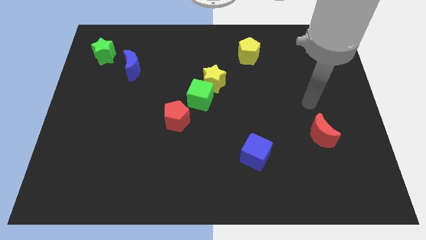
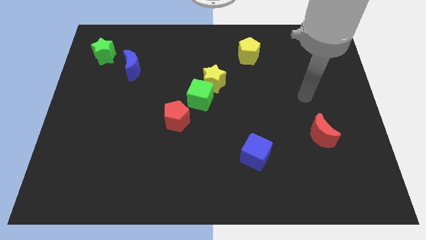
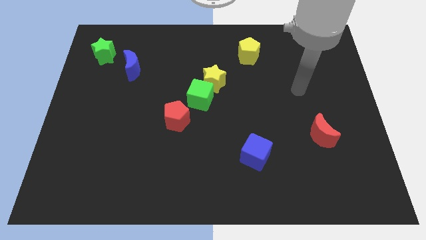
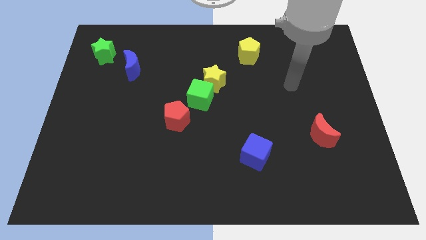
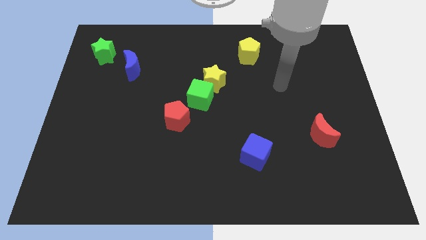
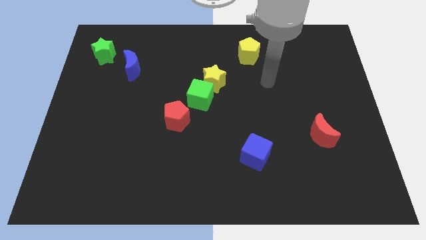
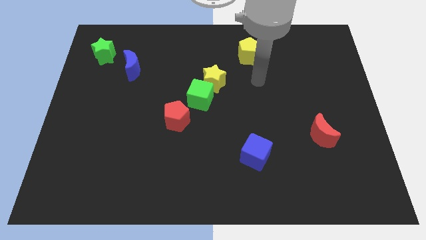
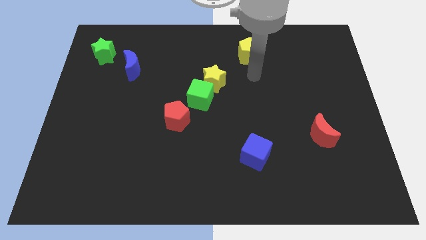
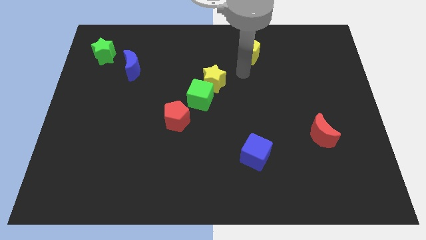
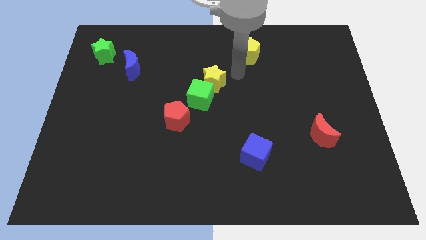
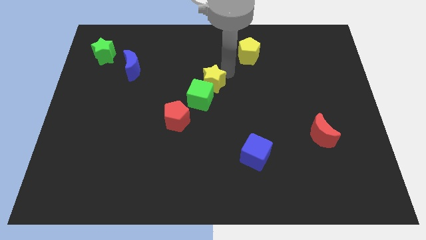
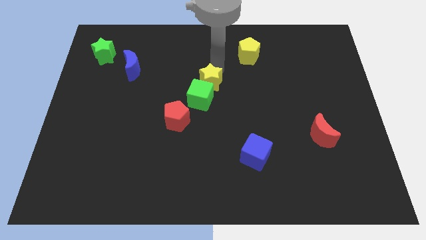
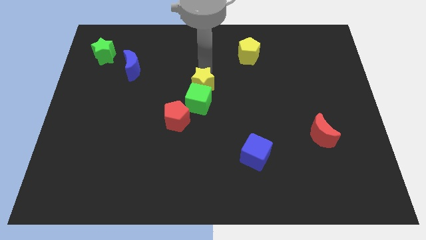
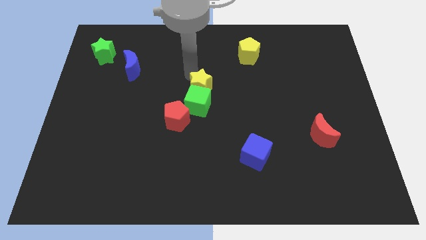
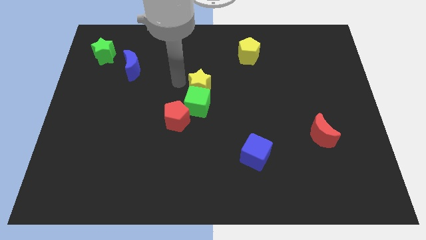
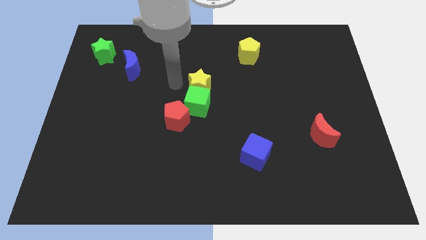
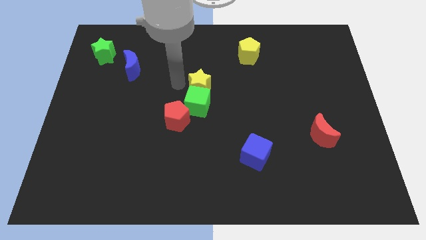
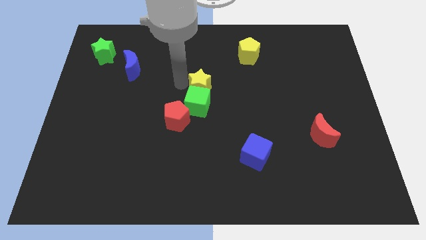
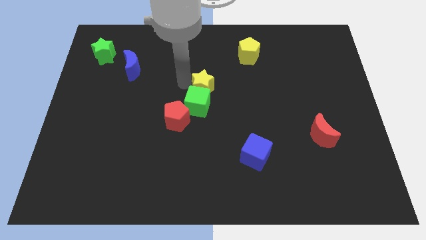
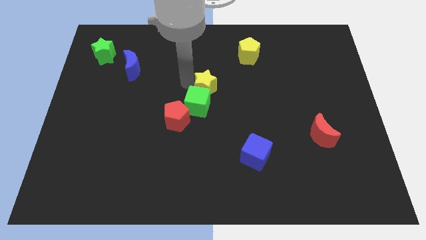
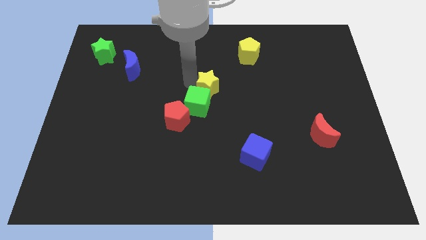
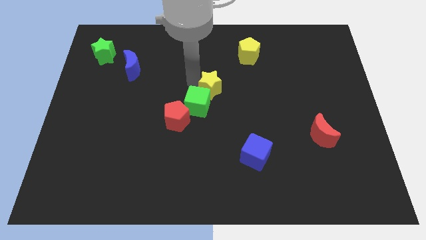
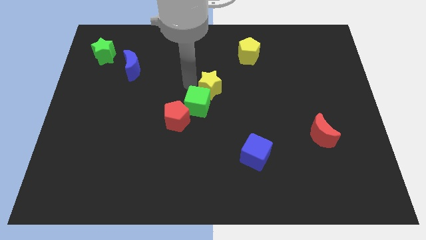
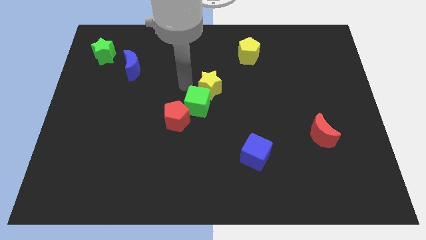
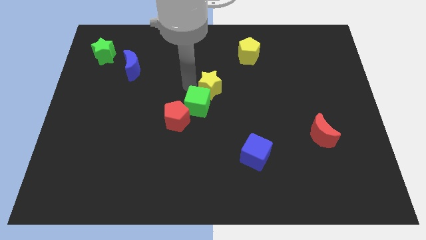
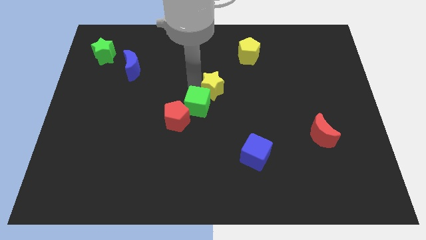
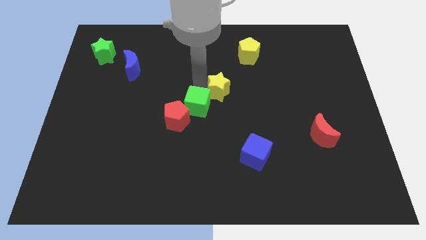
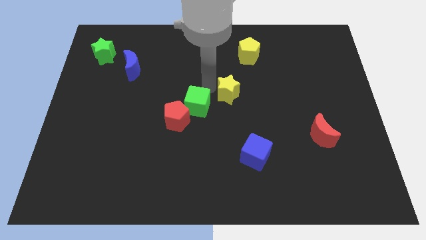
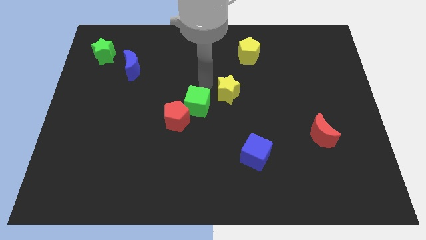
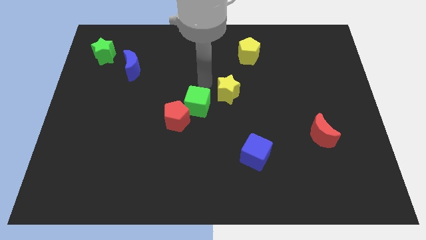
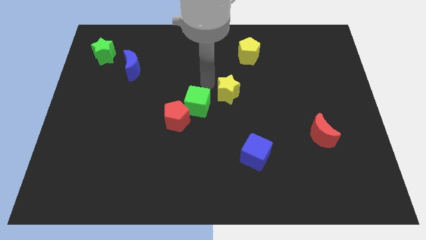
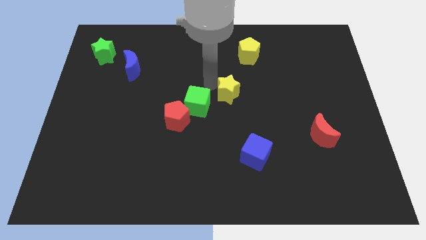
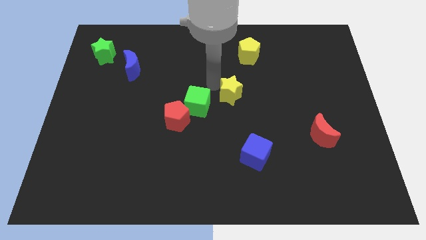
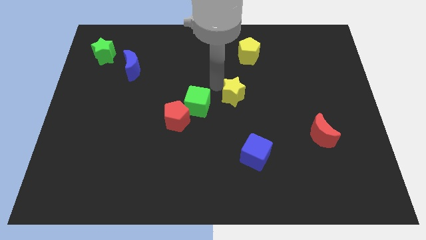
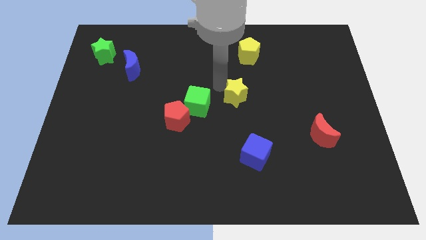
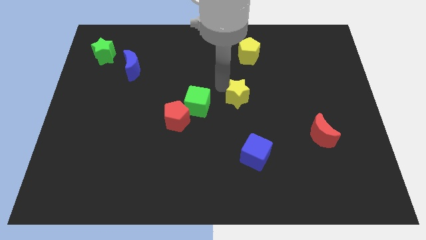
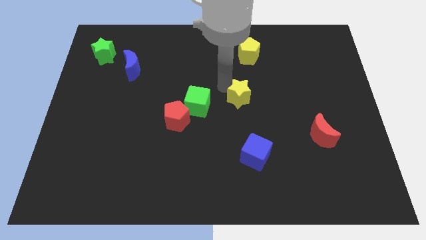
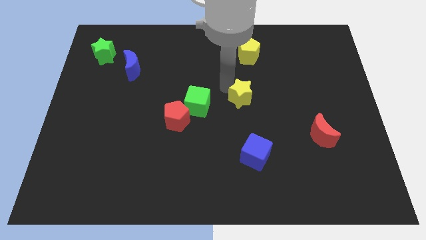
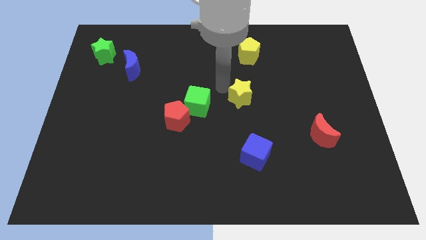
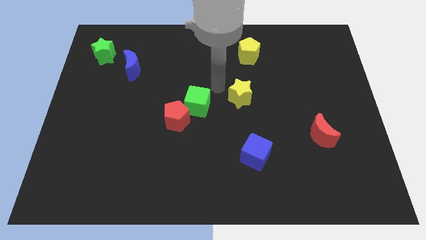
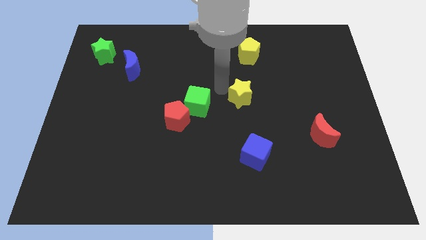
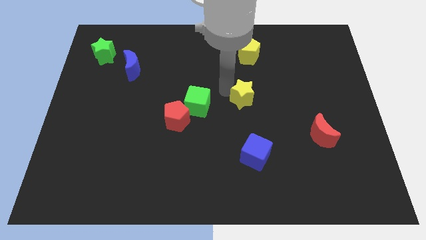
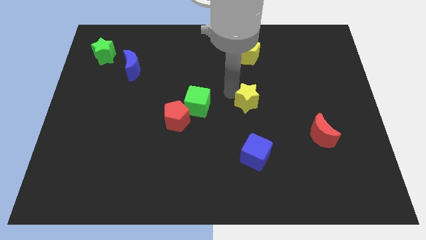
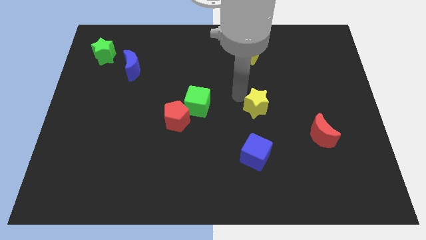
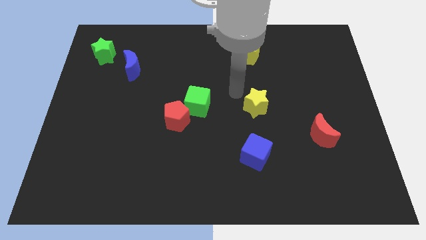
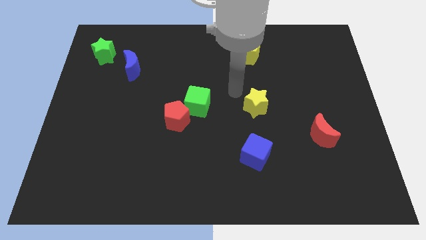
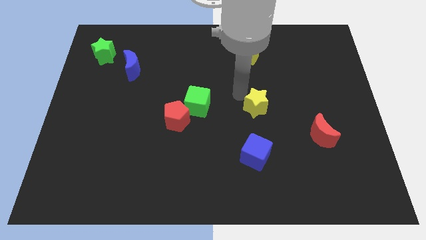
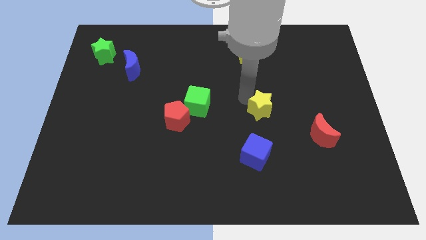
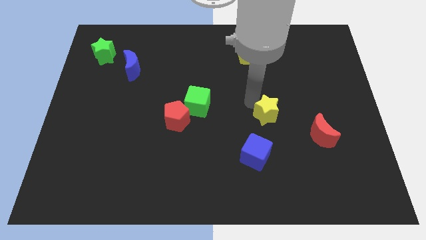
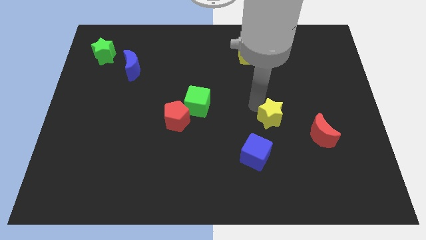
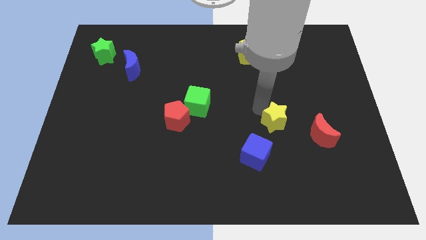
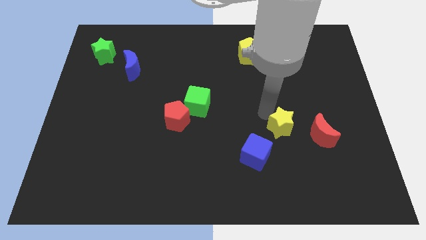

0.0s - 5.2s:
push the yellow star down and to the right diagonally

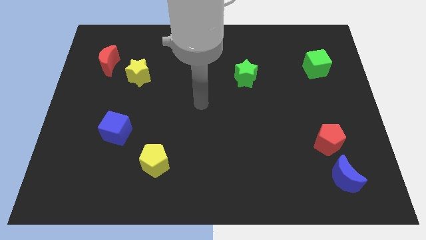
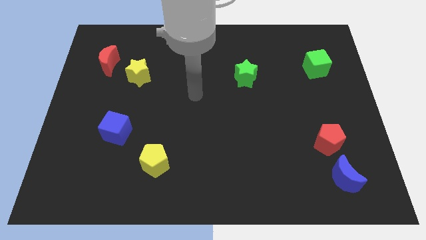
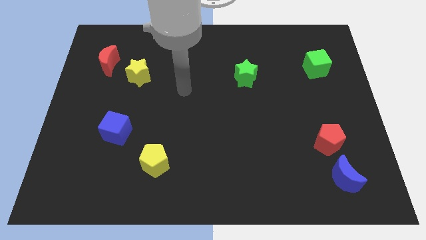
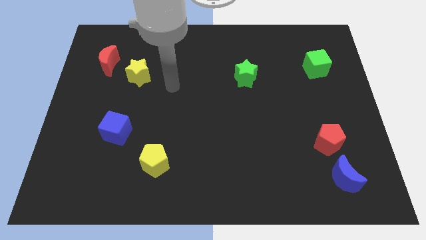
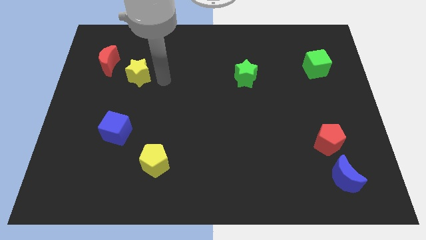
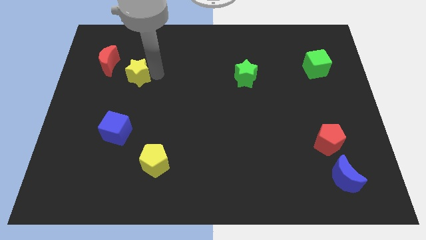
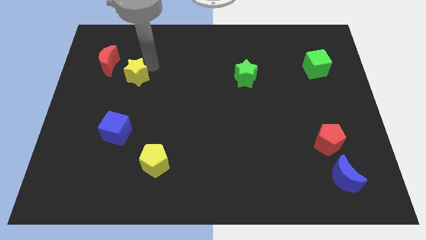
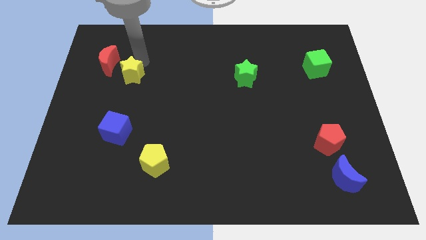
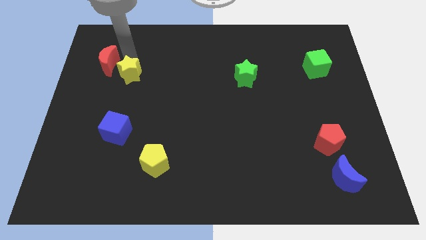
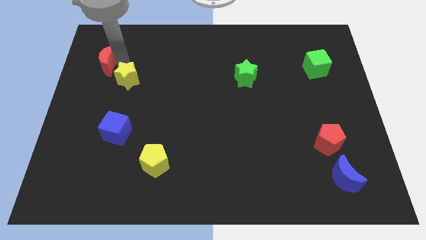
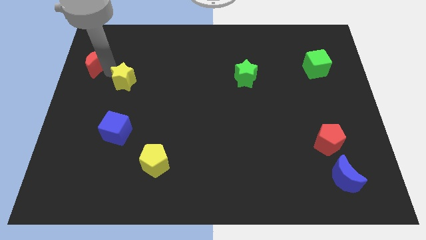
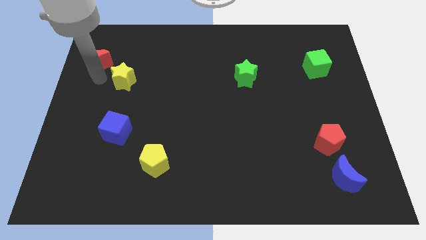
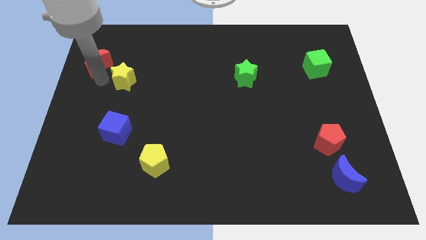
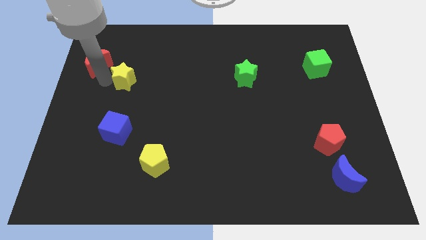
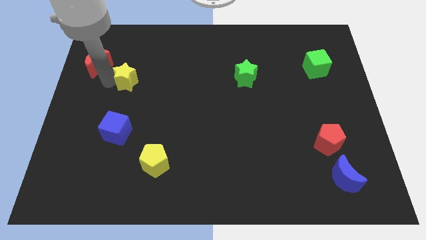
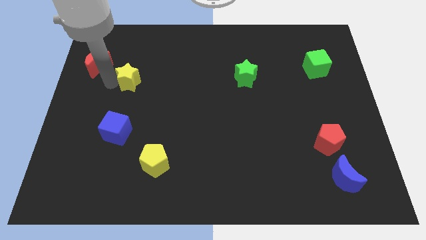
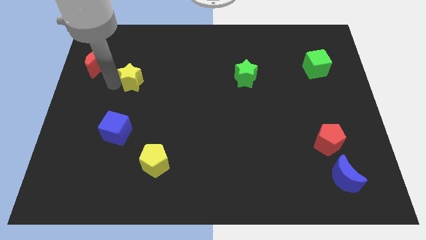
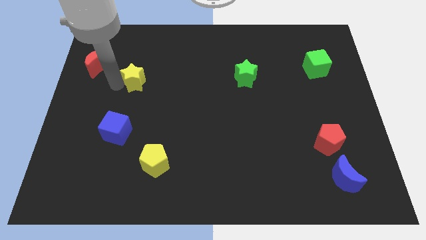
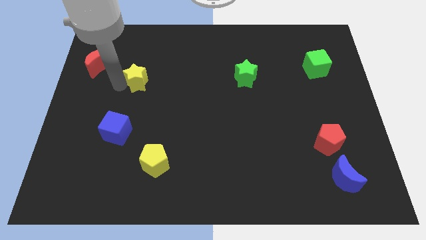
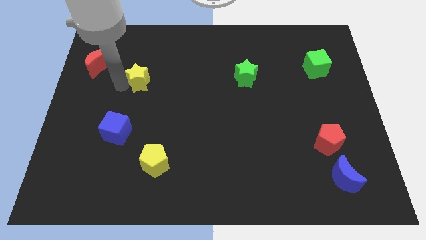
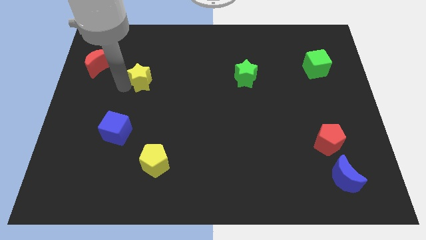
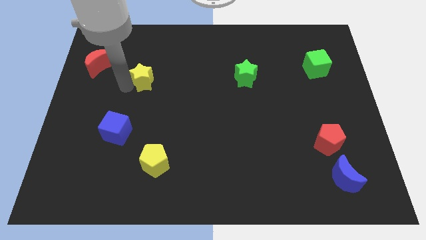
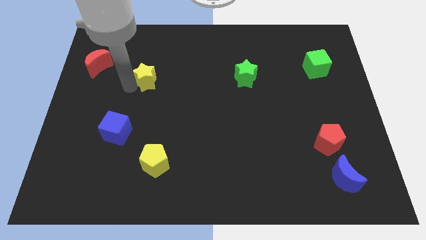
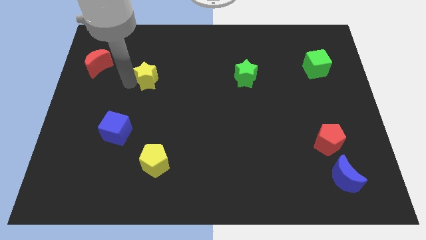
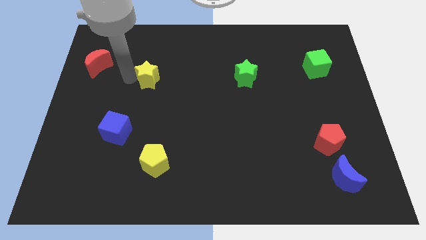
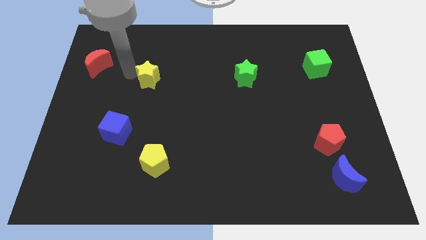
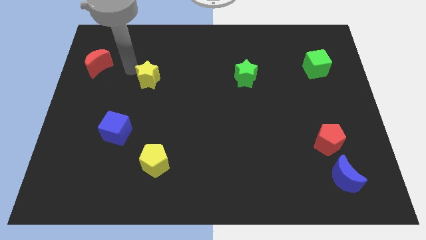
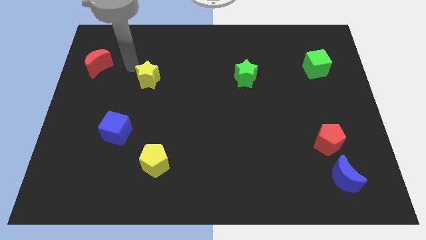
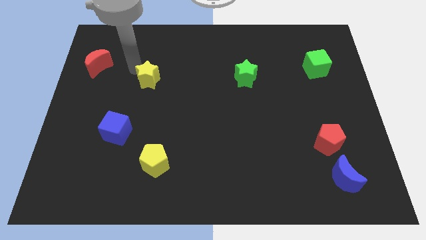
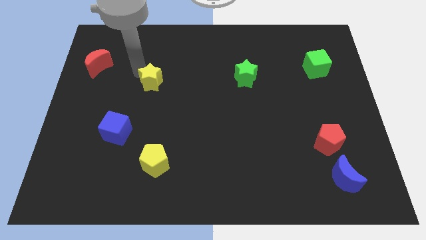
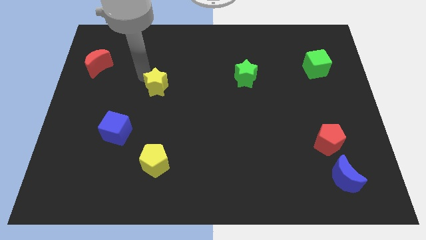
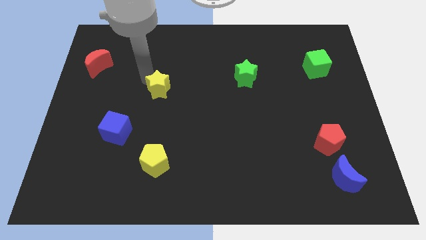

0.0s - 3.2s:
slightly slide the yellow star downwards and right diagonally
